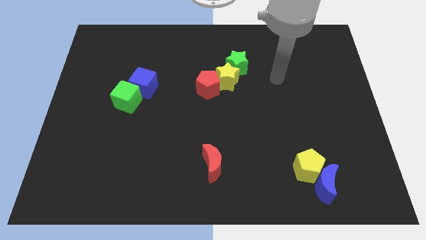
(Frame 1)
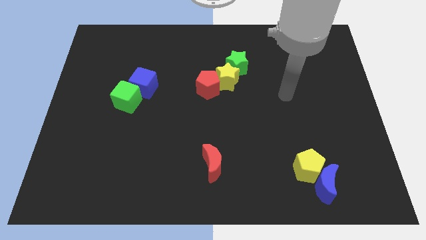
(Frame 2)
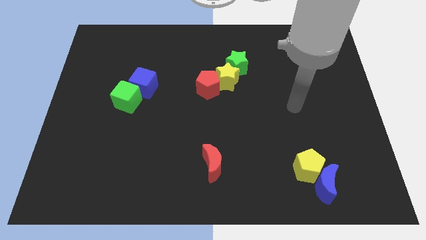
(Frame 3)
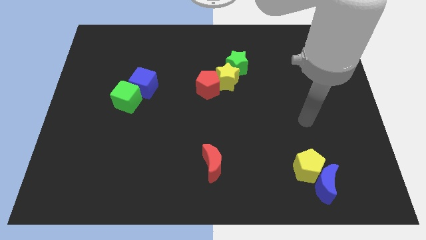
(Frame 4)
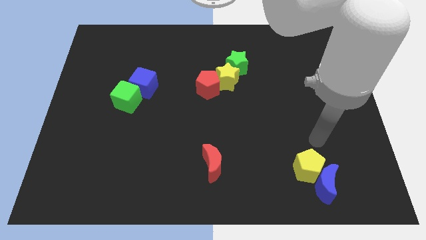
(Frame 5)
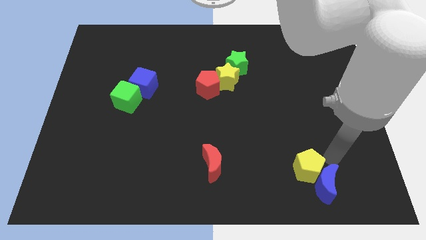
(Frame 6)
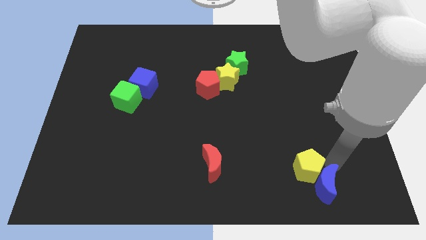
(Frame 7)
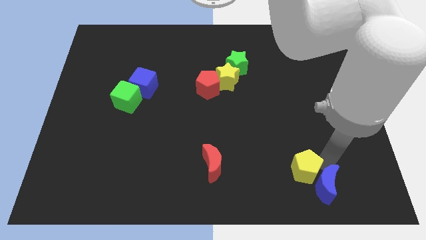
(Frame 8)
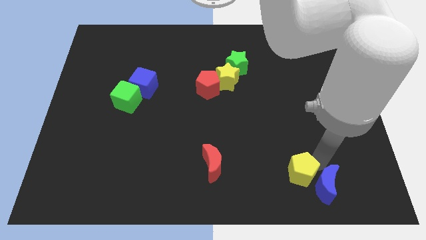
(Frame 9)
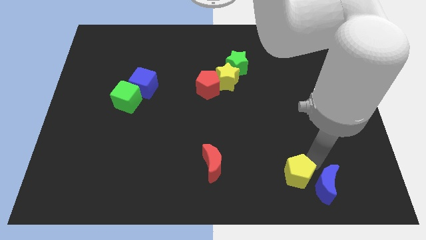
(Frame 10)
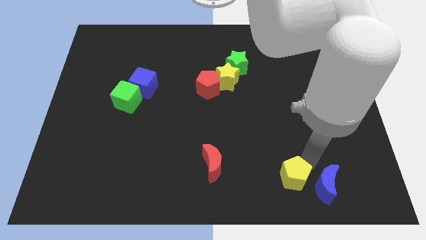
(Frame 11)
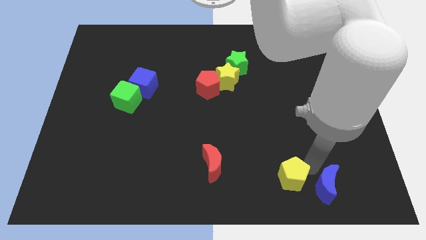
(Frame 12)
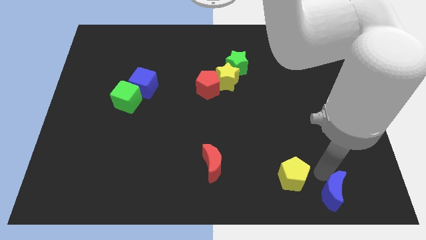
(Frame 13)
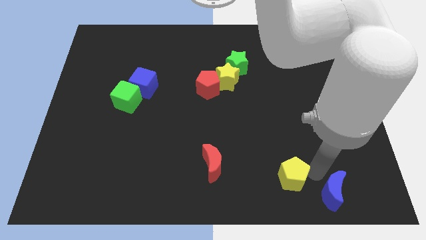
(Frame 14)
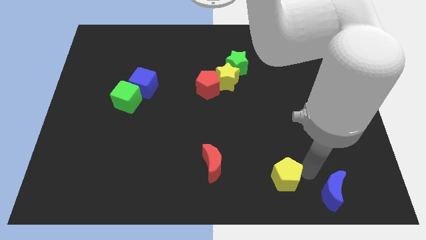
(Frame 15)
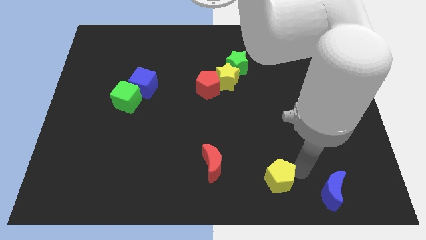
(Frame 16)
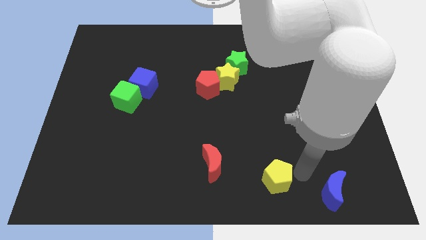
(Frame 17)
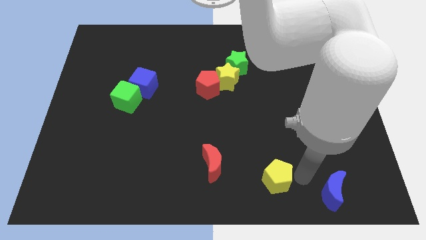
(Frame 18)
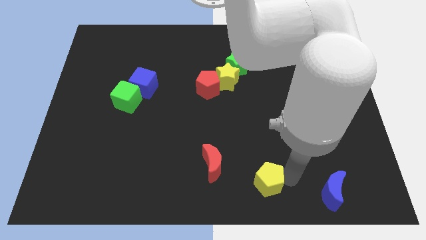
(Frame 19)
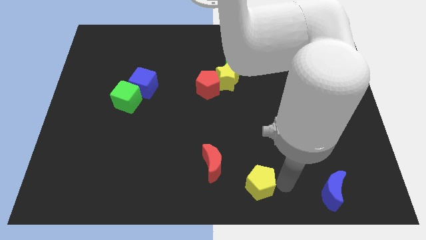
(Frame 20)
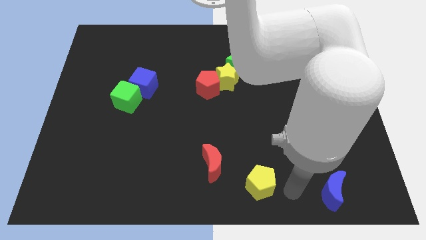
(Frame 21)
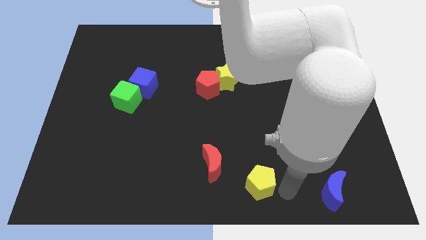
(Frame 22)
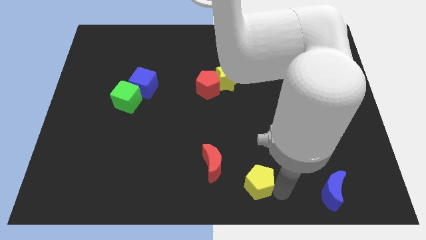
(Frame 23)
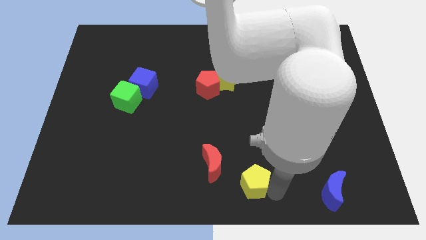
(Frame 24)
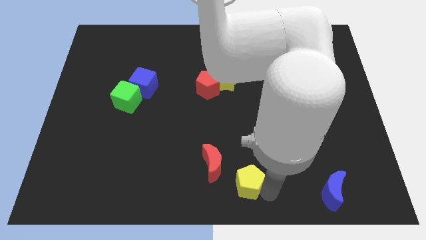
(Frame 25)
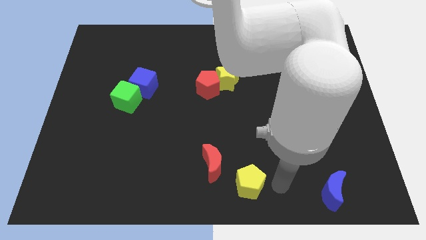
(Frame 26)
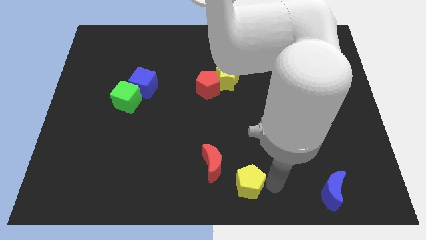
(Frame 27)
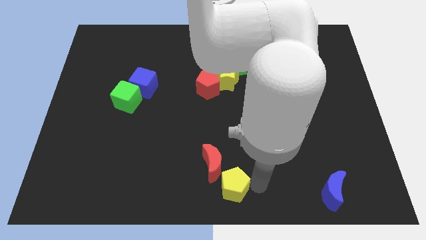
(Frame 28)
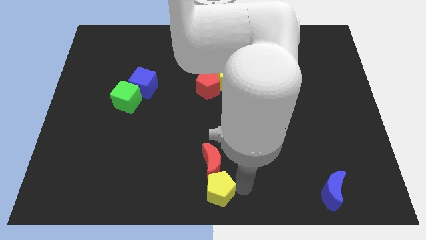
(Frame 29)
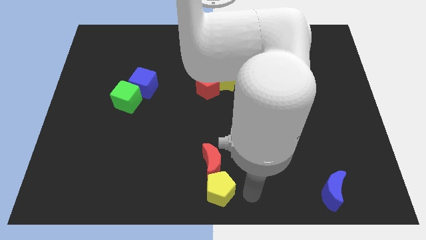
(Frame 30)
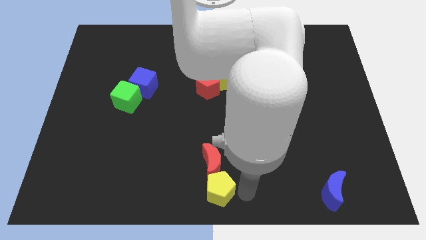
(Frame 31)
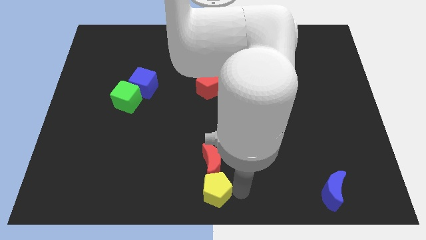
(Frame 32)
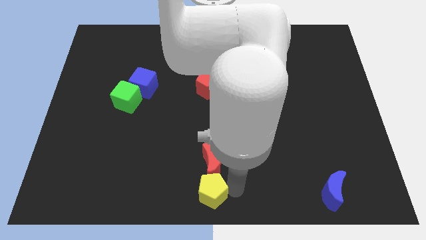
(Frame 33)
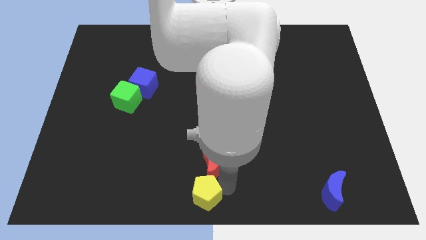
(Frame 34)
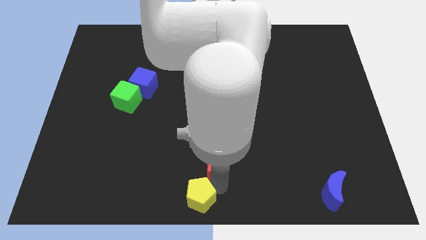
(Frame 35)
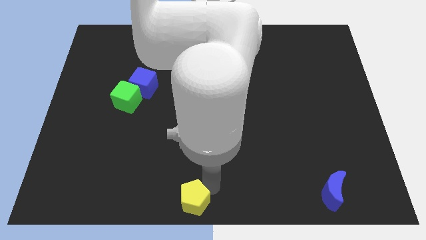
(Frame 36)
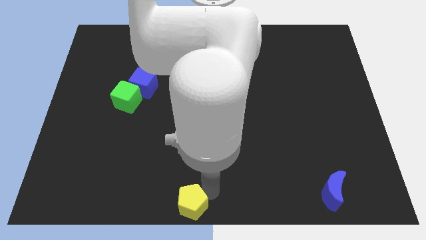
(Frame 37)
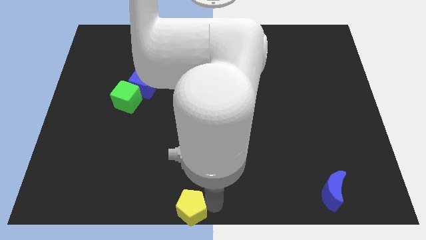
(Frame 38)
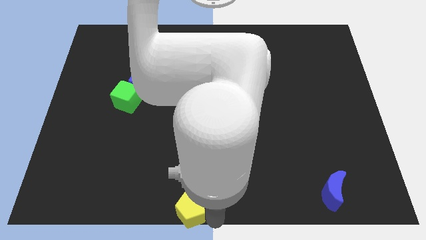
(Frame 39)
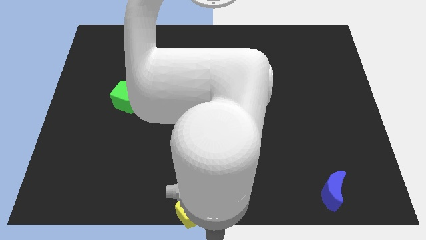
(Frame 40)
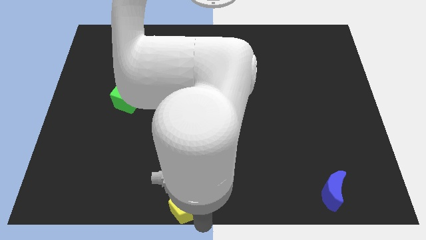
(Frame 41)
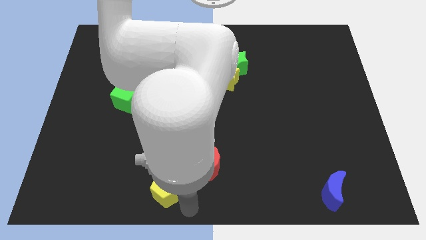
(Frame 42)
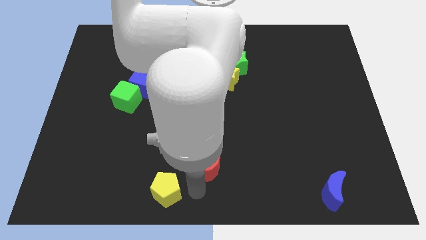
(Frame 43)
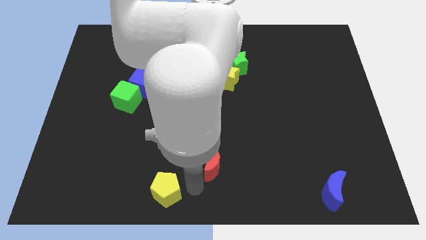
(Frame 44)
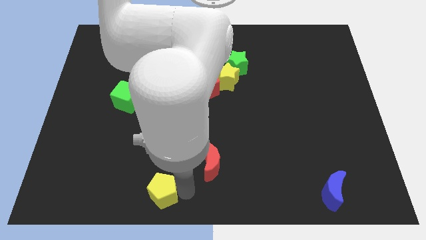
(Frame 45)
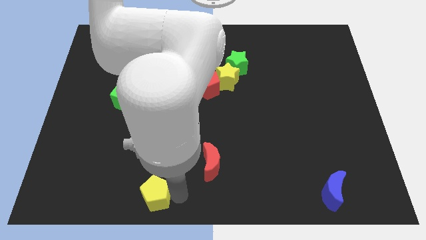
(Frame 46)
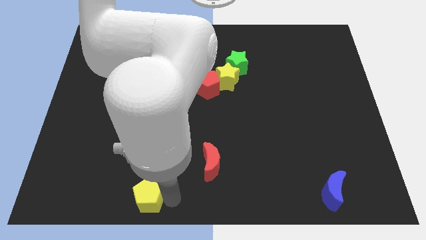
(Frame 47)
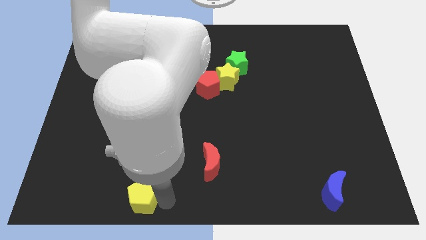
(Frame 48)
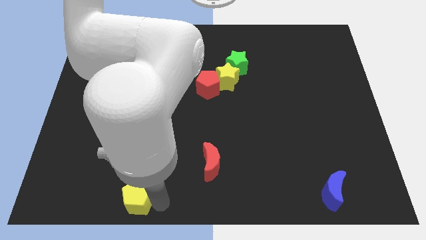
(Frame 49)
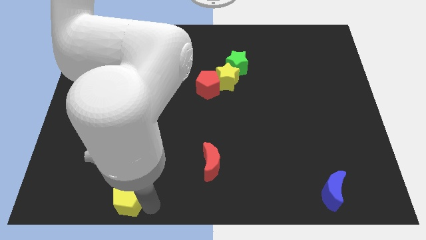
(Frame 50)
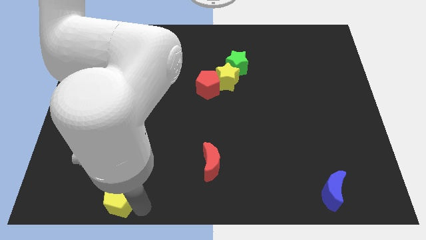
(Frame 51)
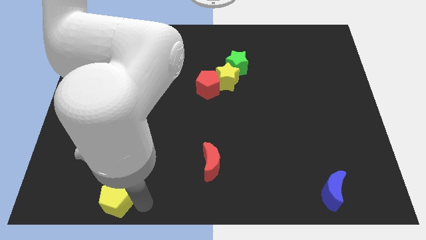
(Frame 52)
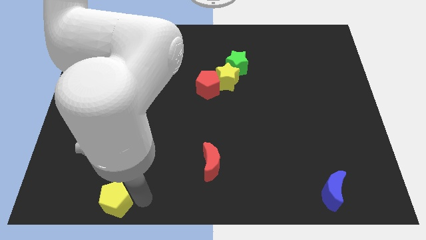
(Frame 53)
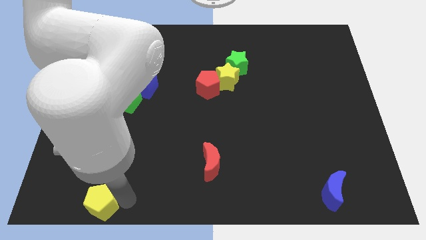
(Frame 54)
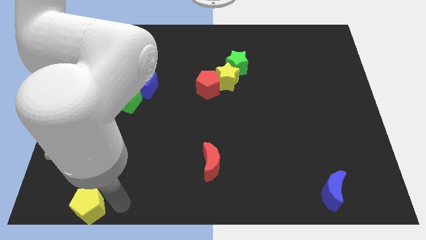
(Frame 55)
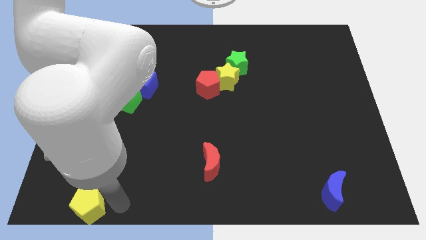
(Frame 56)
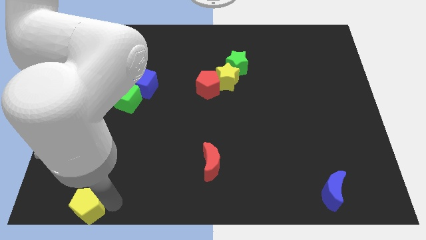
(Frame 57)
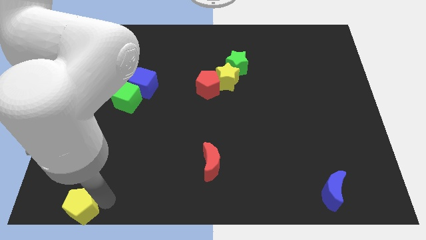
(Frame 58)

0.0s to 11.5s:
put the yellow pentagon to the bottom left corner
